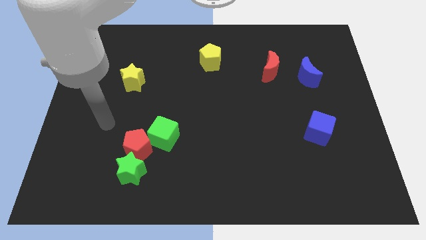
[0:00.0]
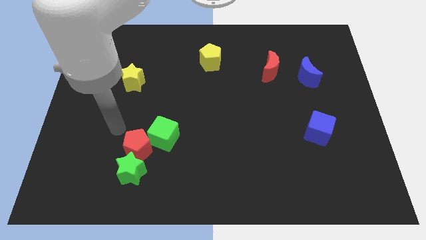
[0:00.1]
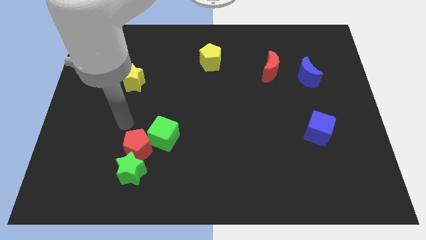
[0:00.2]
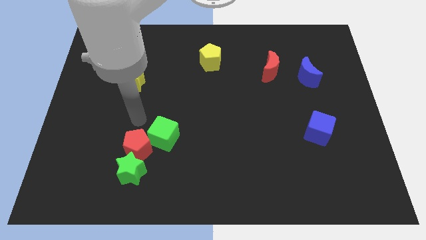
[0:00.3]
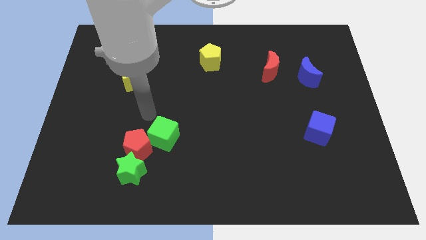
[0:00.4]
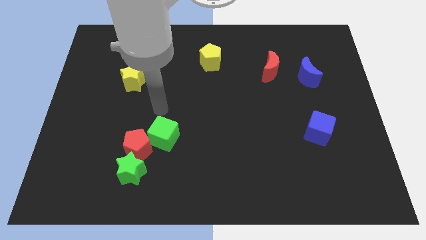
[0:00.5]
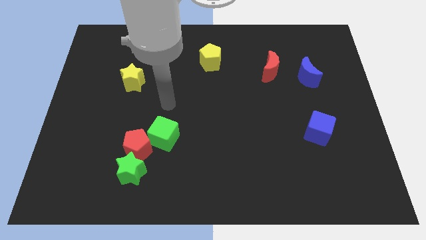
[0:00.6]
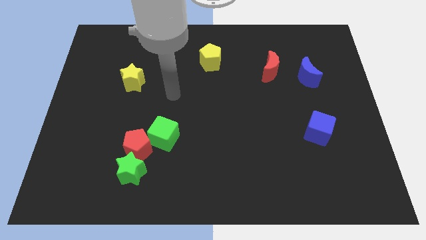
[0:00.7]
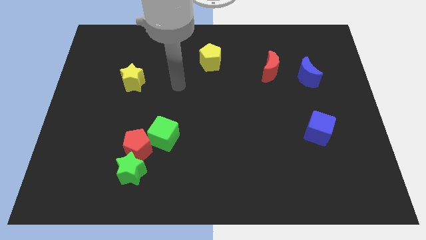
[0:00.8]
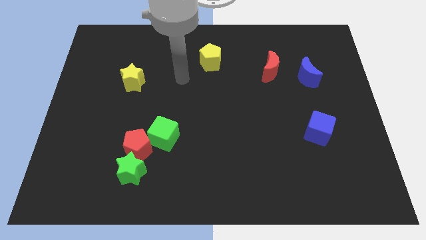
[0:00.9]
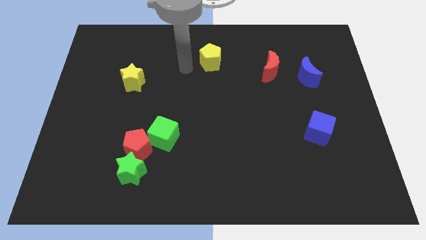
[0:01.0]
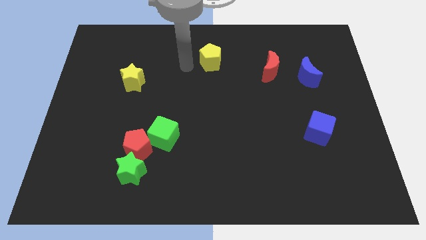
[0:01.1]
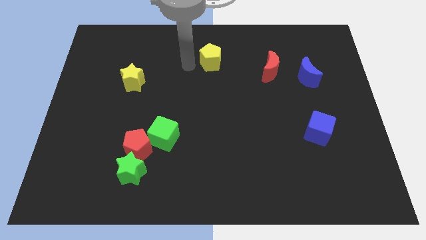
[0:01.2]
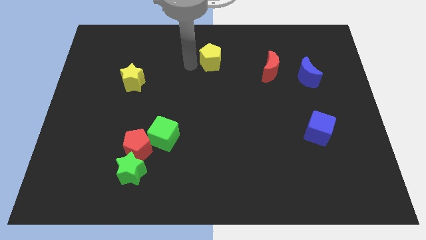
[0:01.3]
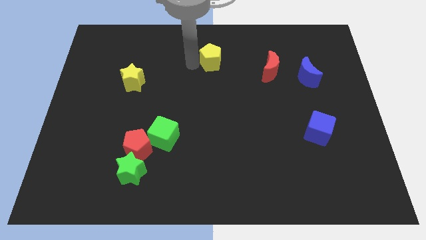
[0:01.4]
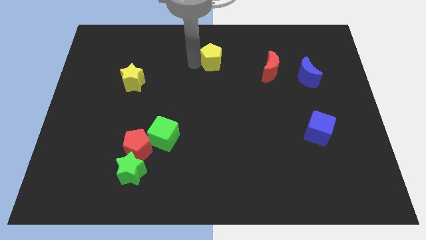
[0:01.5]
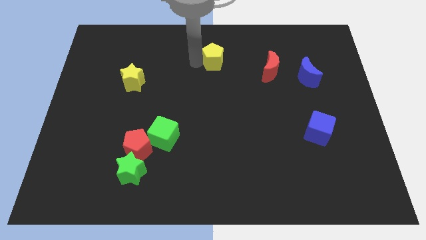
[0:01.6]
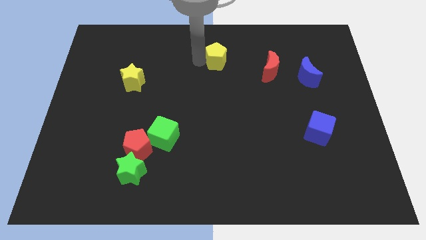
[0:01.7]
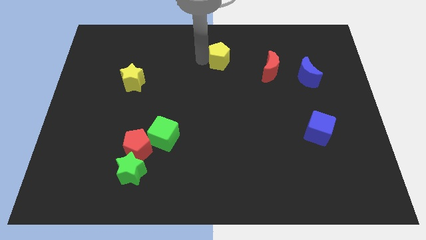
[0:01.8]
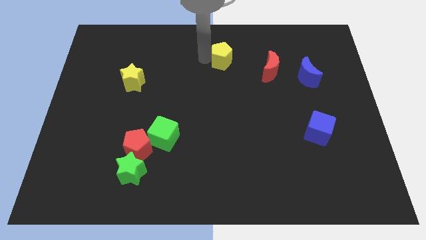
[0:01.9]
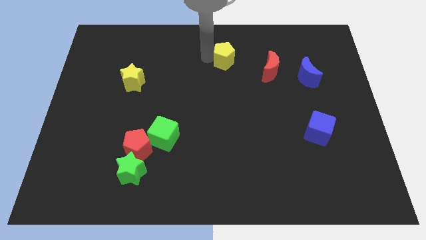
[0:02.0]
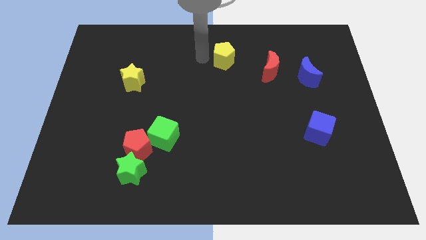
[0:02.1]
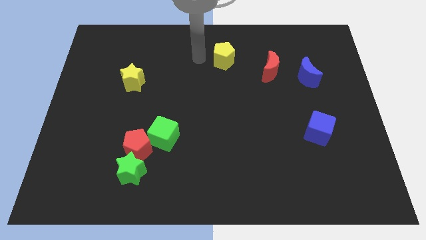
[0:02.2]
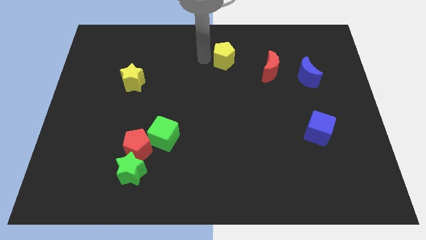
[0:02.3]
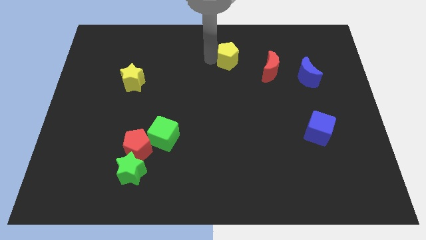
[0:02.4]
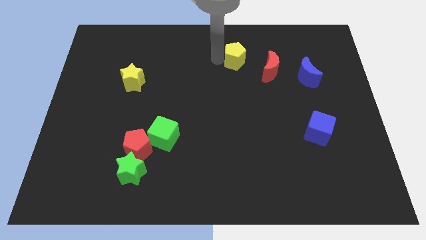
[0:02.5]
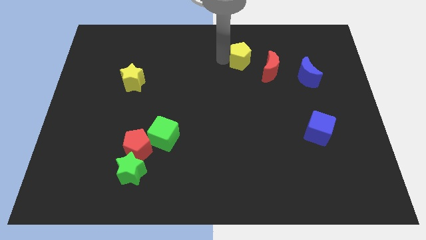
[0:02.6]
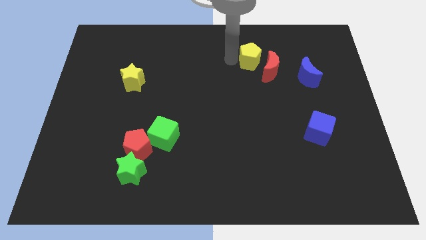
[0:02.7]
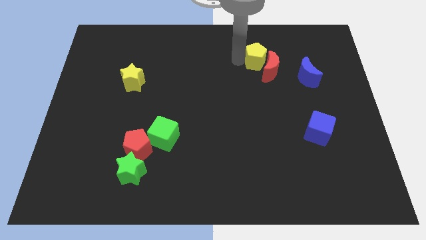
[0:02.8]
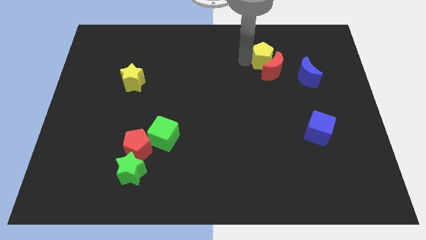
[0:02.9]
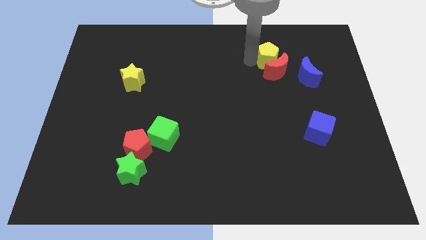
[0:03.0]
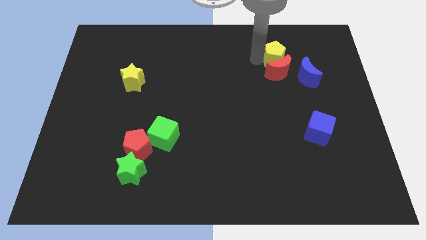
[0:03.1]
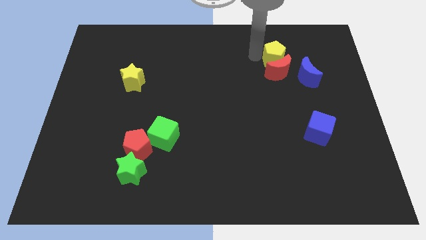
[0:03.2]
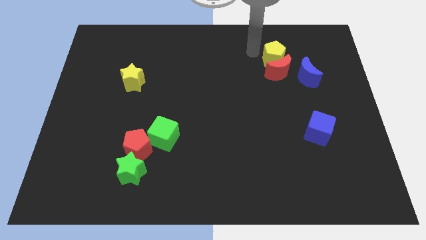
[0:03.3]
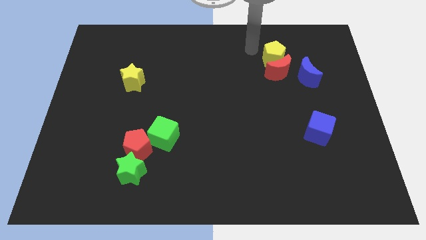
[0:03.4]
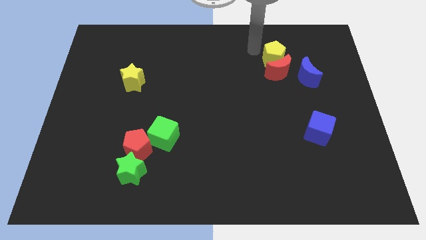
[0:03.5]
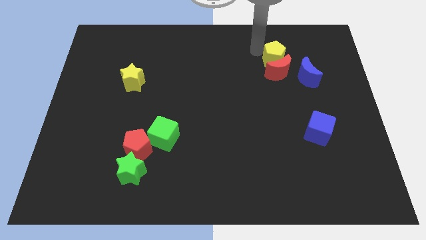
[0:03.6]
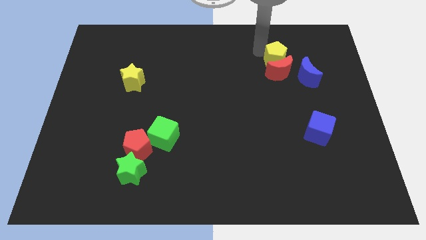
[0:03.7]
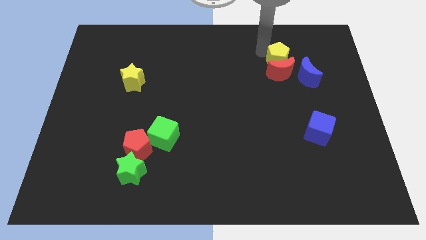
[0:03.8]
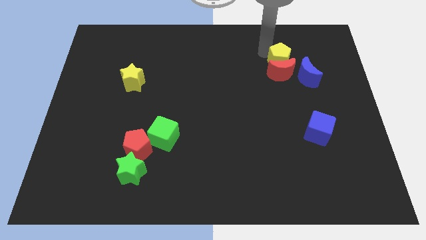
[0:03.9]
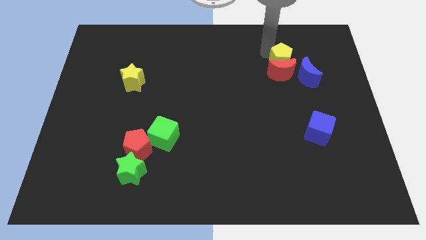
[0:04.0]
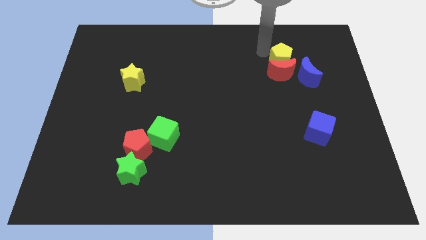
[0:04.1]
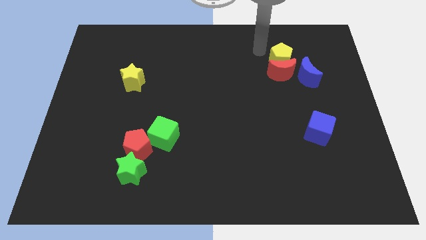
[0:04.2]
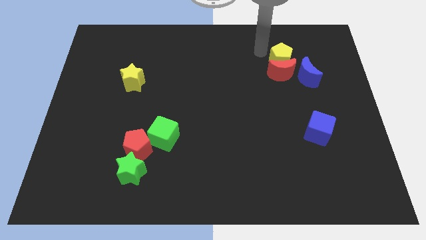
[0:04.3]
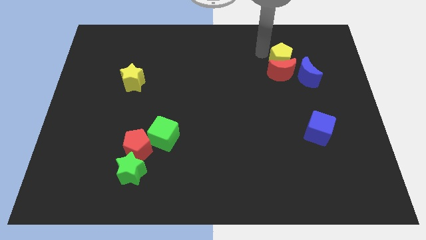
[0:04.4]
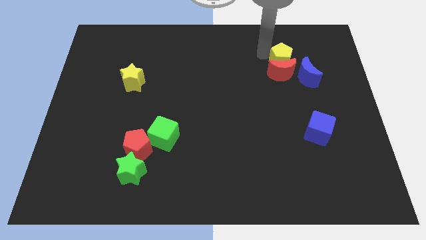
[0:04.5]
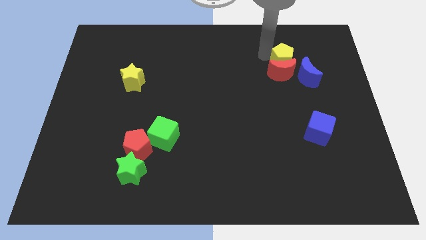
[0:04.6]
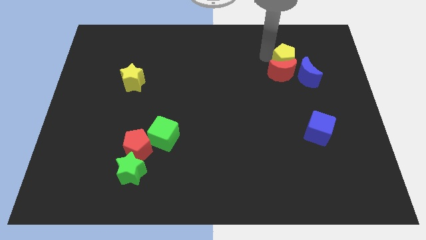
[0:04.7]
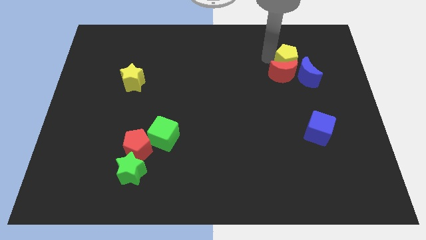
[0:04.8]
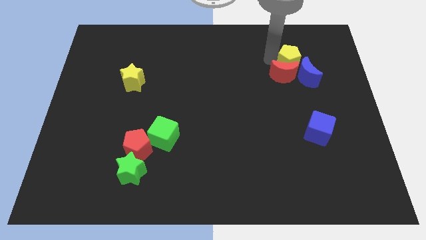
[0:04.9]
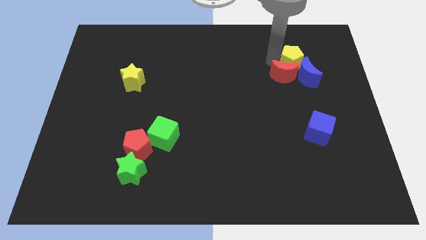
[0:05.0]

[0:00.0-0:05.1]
put the yellow pentagon close to the blue moon

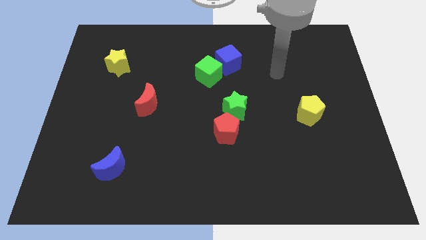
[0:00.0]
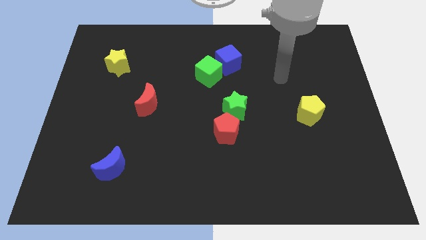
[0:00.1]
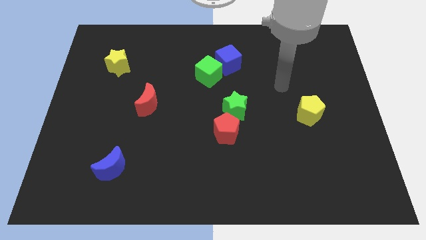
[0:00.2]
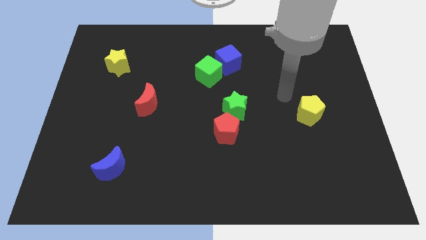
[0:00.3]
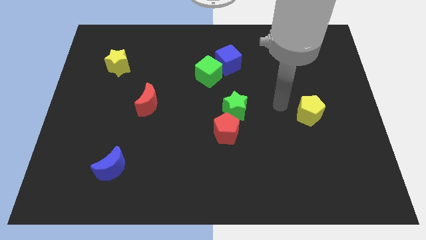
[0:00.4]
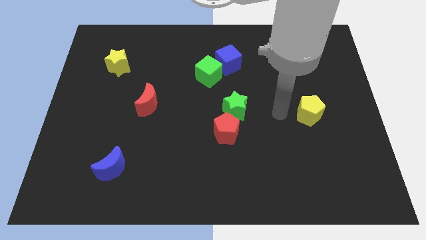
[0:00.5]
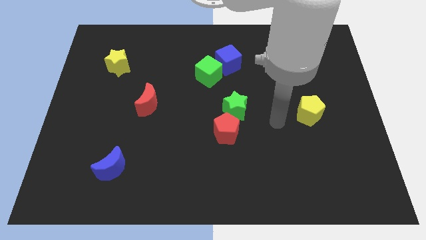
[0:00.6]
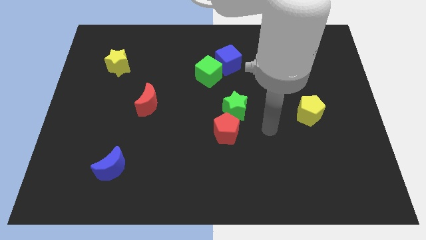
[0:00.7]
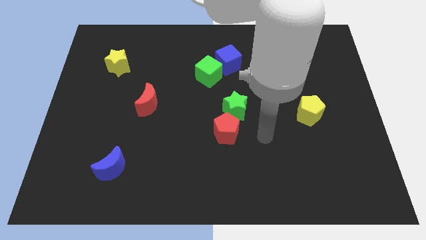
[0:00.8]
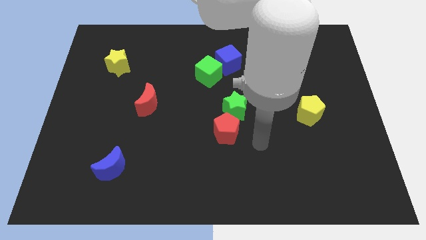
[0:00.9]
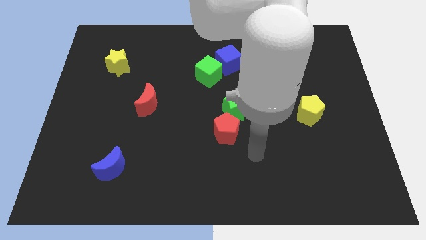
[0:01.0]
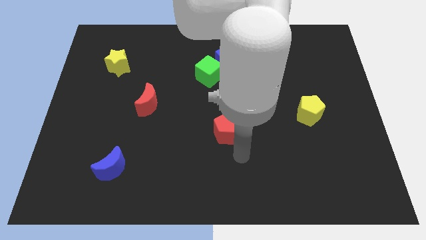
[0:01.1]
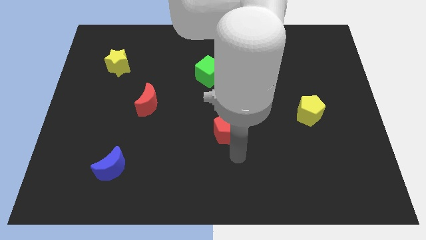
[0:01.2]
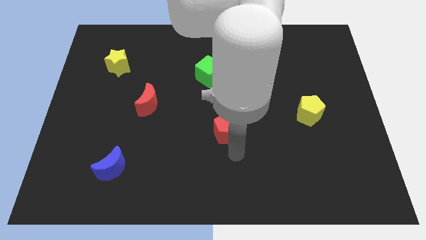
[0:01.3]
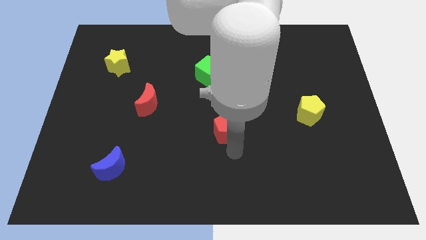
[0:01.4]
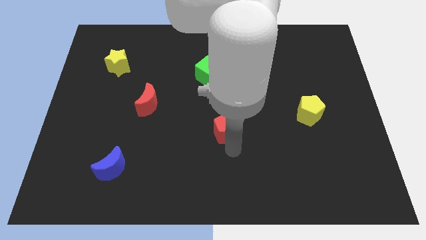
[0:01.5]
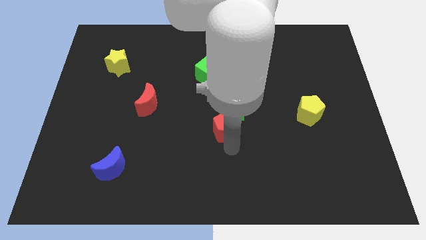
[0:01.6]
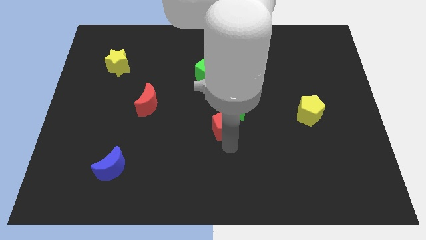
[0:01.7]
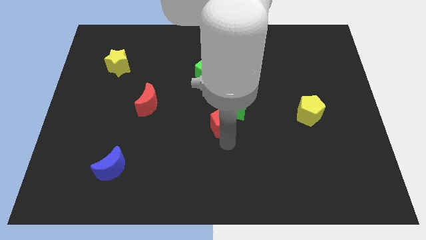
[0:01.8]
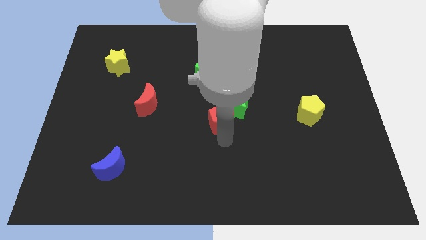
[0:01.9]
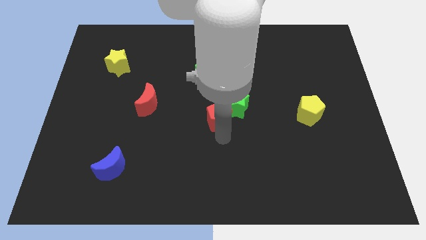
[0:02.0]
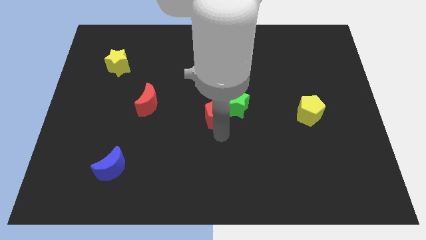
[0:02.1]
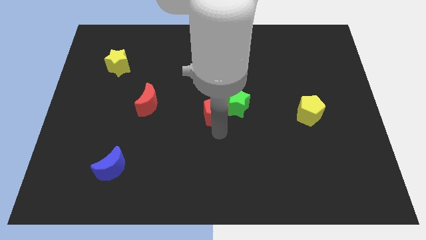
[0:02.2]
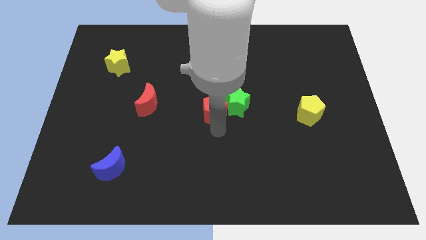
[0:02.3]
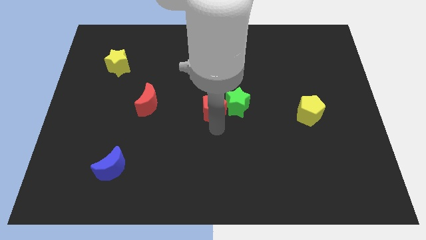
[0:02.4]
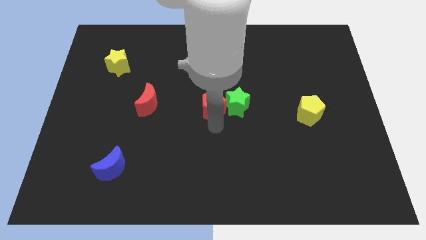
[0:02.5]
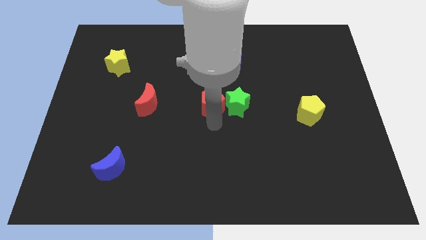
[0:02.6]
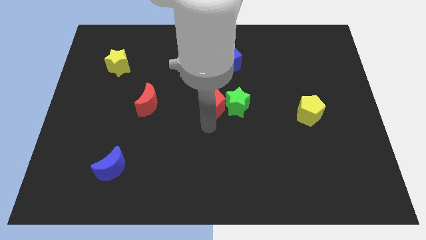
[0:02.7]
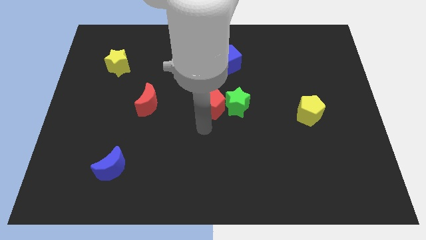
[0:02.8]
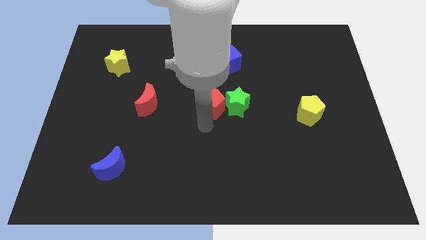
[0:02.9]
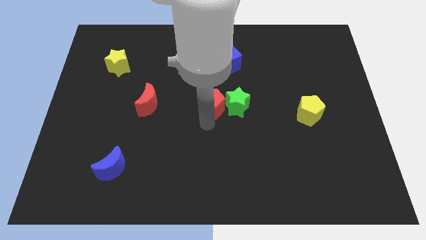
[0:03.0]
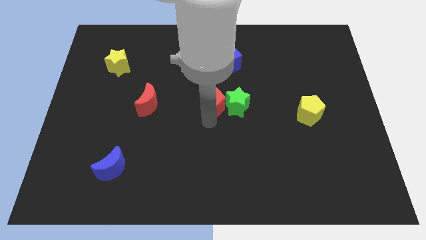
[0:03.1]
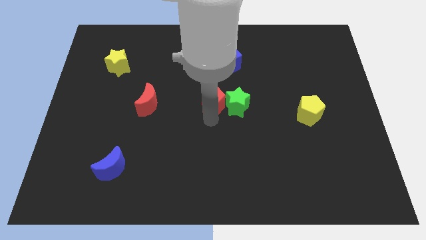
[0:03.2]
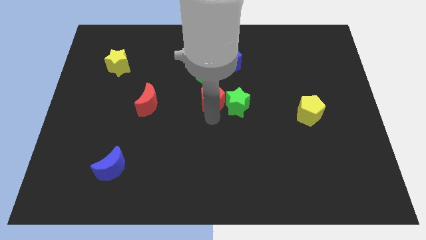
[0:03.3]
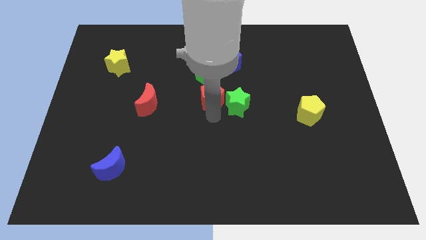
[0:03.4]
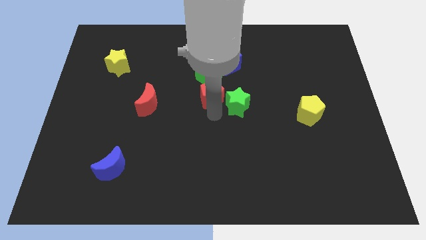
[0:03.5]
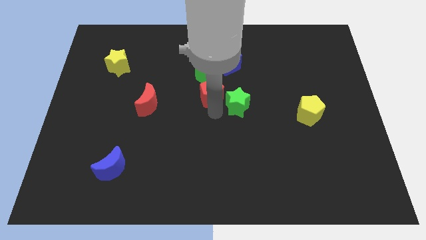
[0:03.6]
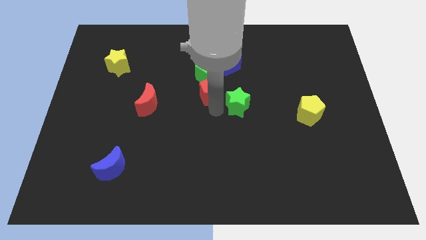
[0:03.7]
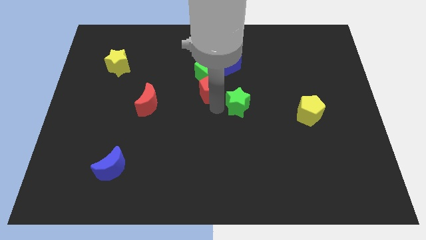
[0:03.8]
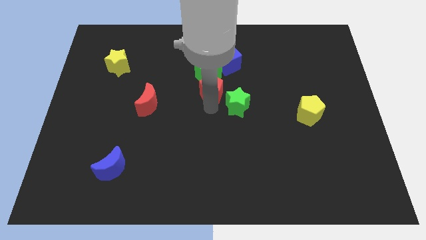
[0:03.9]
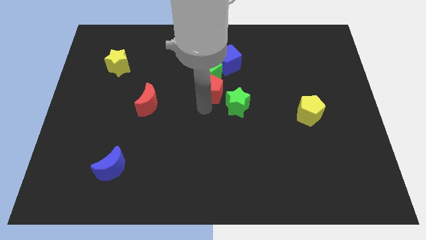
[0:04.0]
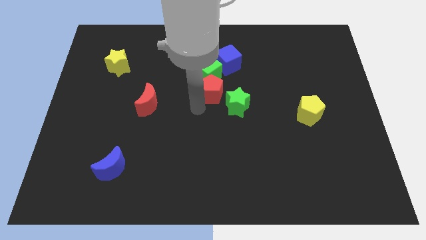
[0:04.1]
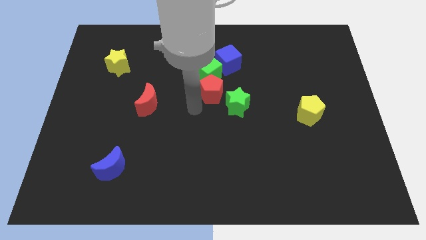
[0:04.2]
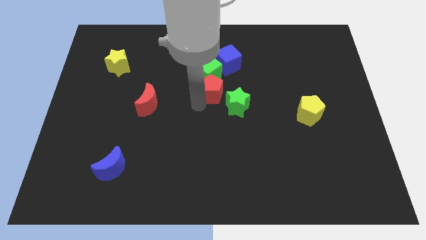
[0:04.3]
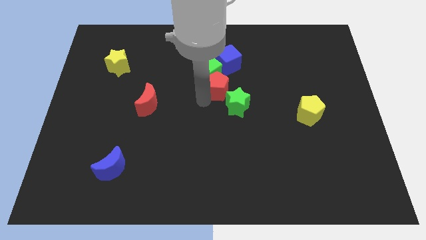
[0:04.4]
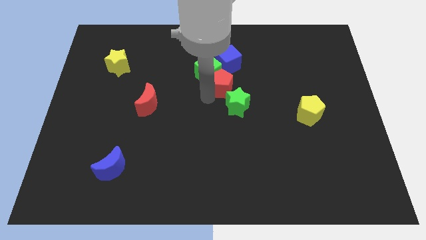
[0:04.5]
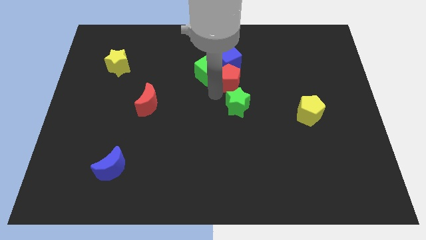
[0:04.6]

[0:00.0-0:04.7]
put the red pentagon next to the blue cube
